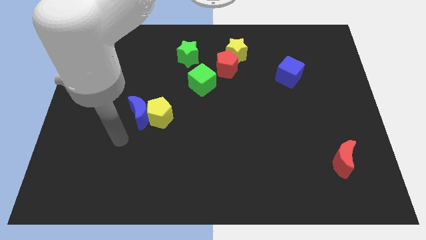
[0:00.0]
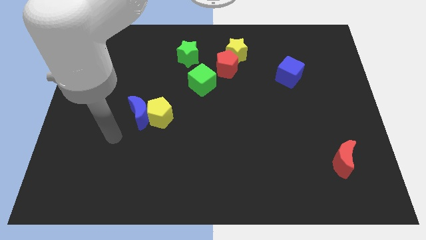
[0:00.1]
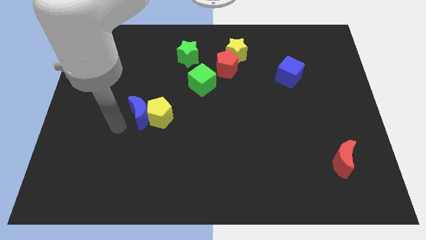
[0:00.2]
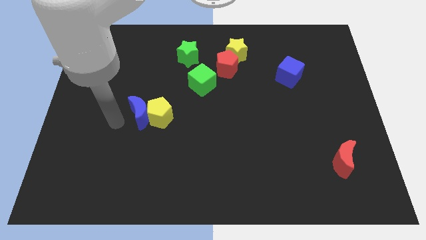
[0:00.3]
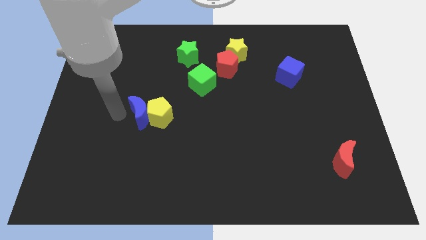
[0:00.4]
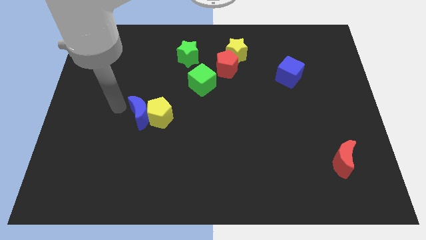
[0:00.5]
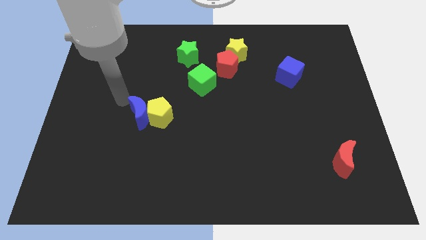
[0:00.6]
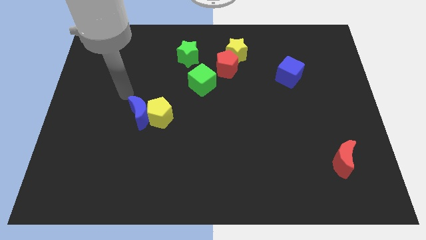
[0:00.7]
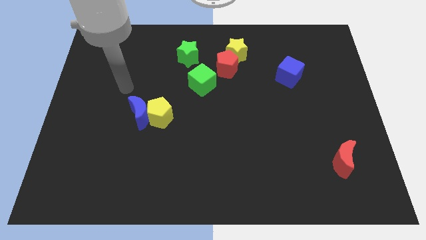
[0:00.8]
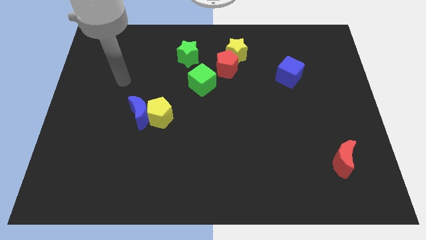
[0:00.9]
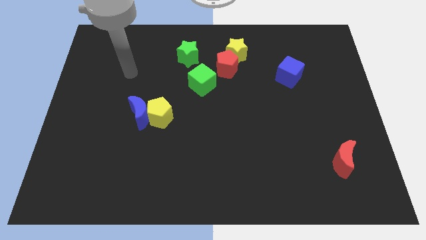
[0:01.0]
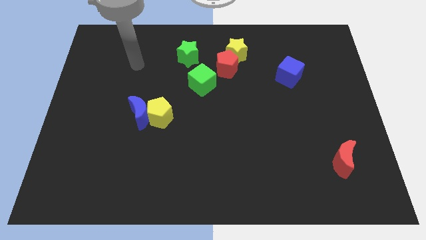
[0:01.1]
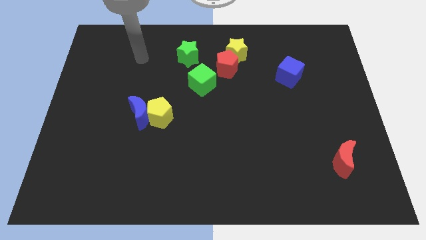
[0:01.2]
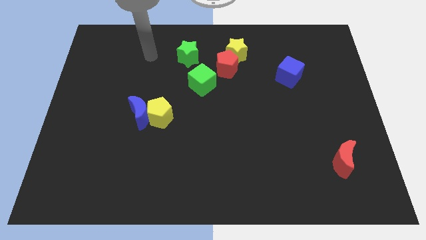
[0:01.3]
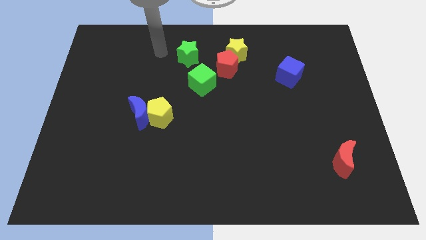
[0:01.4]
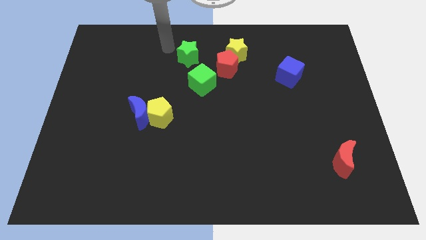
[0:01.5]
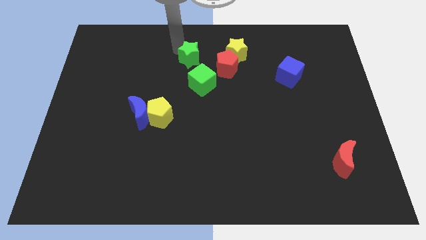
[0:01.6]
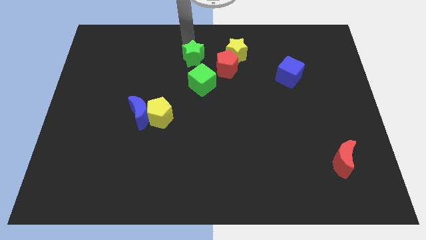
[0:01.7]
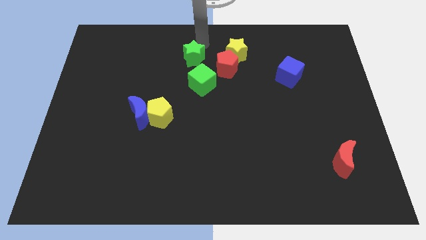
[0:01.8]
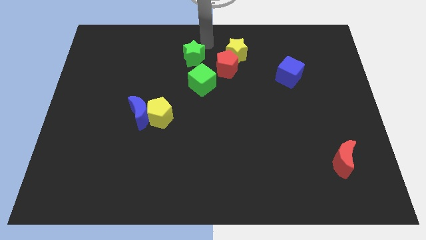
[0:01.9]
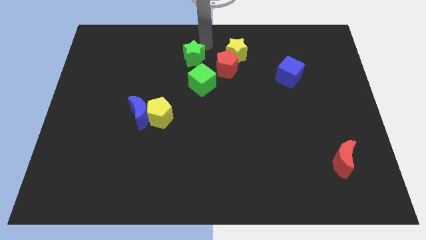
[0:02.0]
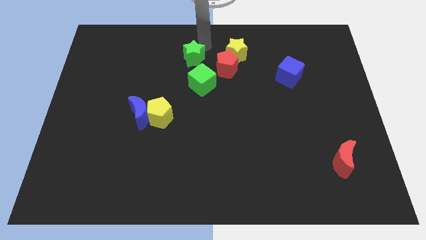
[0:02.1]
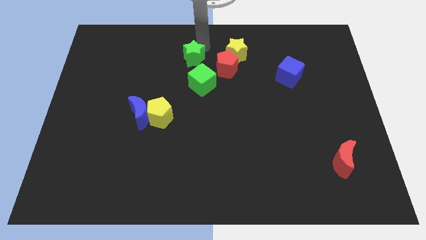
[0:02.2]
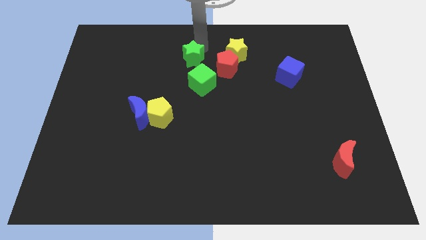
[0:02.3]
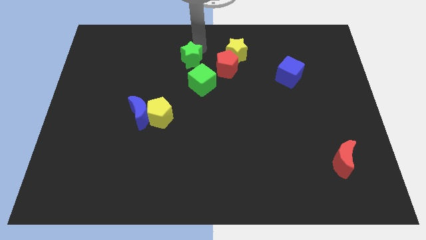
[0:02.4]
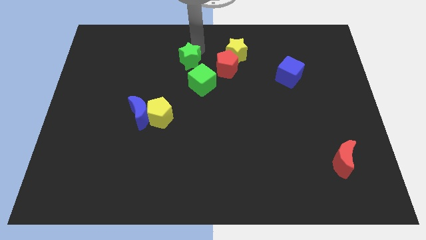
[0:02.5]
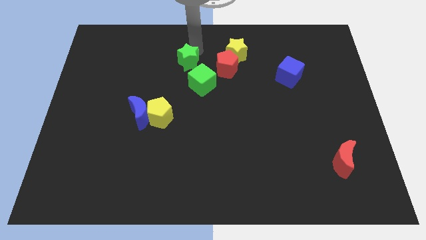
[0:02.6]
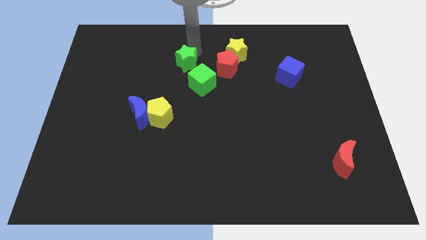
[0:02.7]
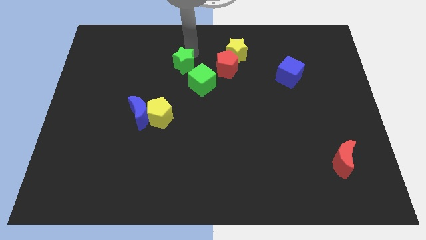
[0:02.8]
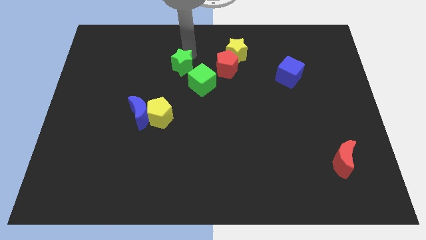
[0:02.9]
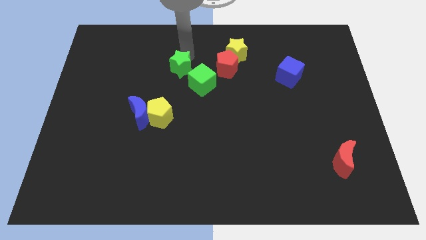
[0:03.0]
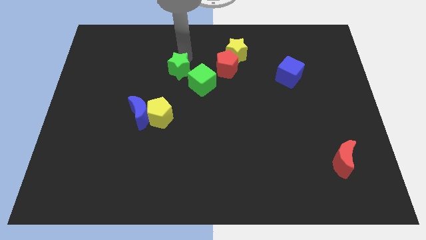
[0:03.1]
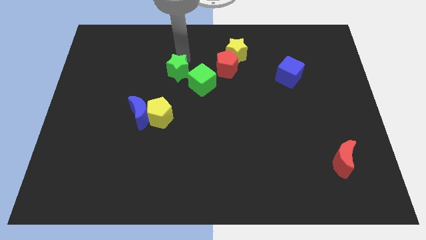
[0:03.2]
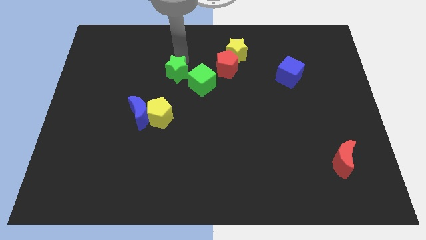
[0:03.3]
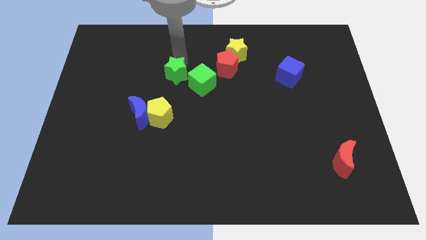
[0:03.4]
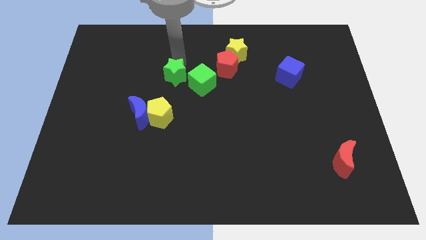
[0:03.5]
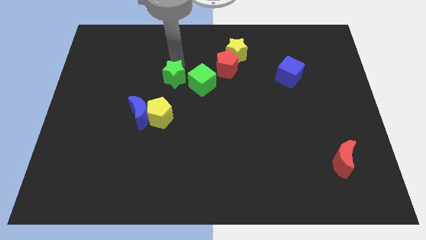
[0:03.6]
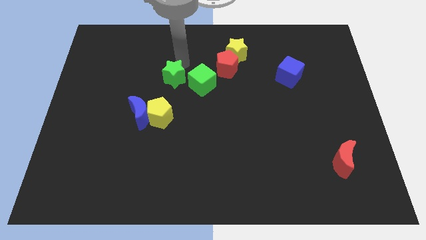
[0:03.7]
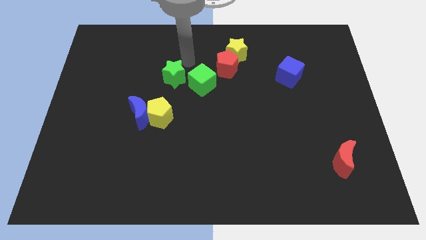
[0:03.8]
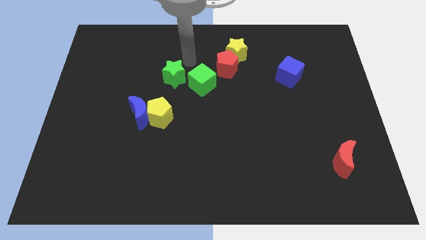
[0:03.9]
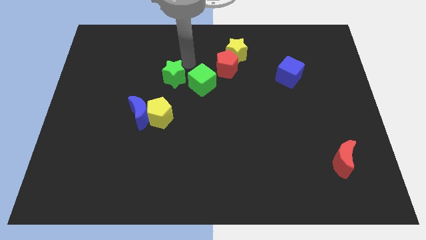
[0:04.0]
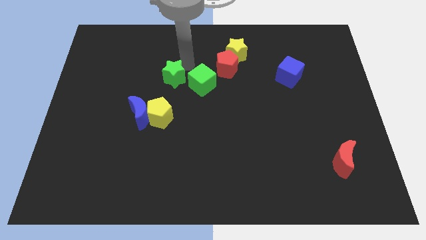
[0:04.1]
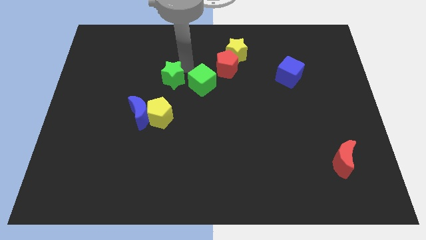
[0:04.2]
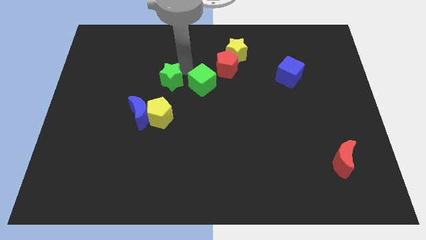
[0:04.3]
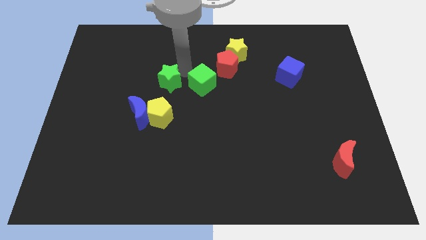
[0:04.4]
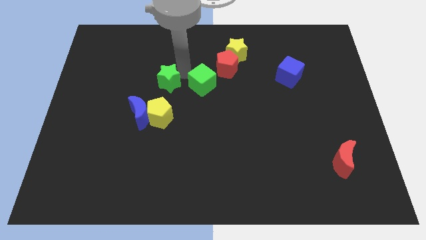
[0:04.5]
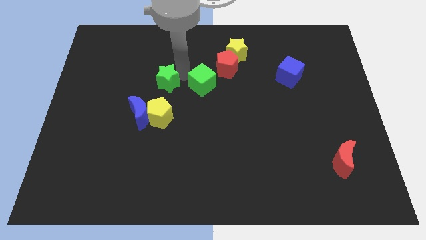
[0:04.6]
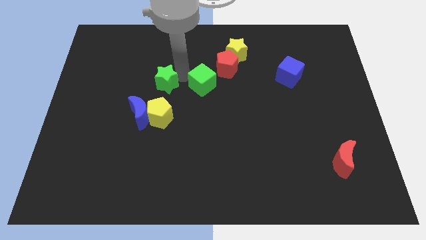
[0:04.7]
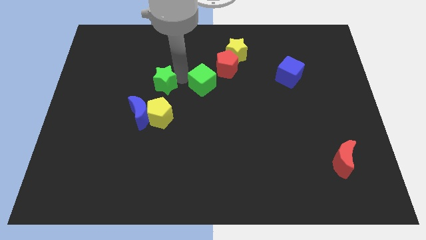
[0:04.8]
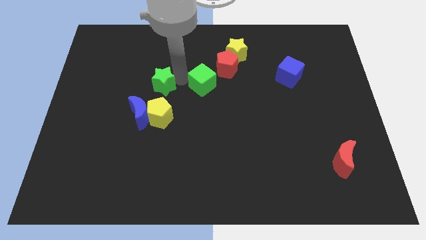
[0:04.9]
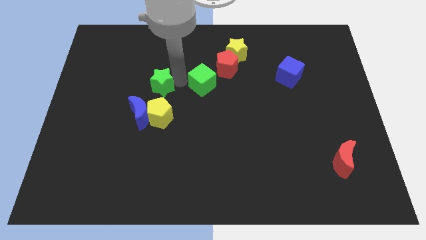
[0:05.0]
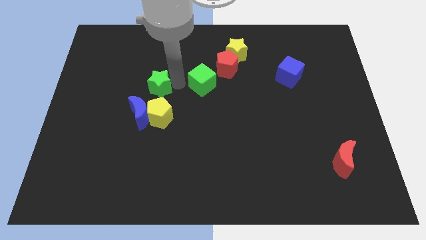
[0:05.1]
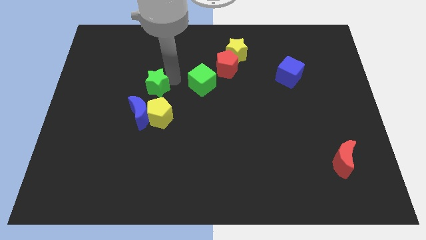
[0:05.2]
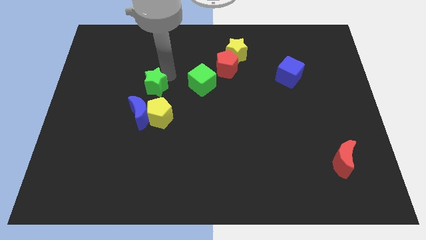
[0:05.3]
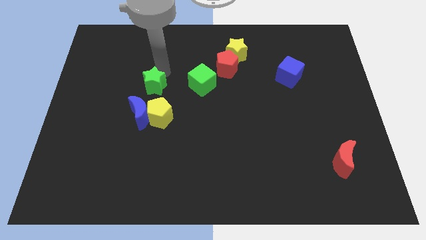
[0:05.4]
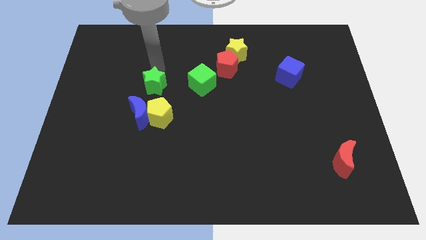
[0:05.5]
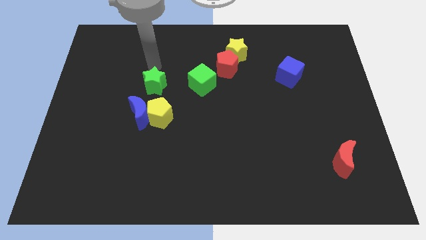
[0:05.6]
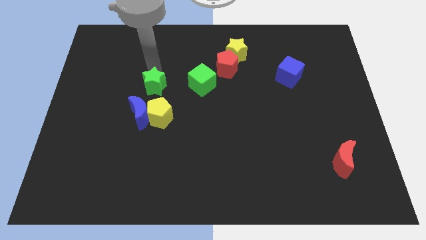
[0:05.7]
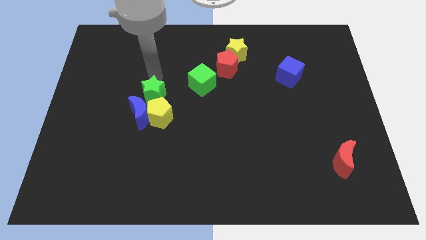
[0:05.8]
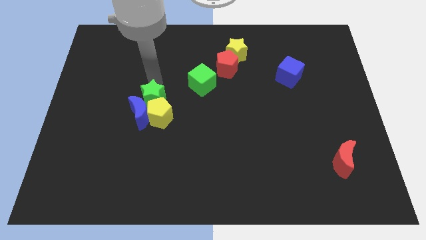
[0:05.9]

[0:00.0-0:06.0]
push the green star to the yellow pentagon

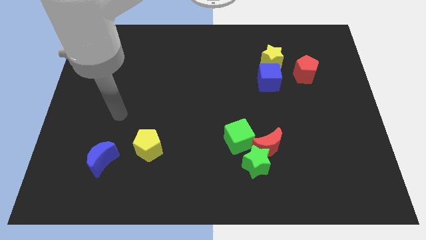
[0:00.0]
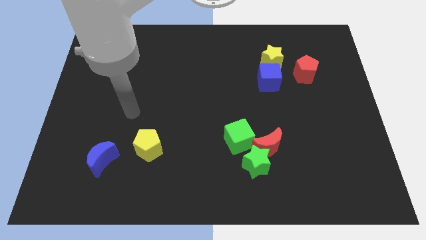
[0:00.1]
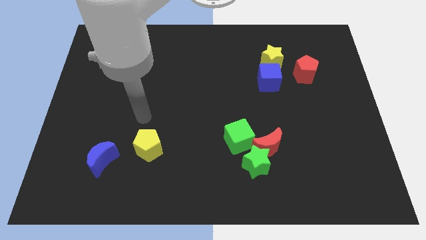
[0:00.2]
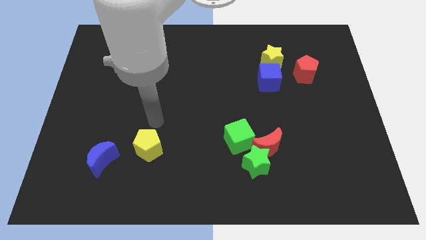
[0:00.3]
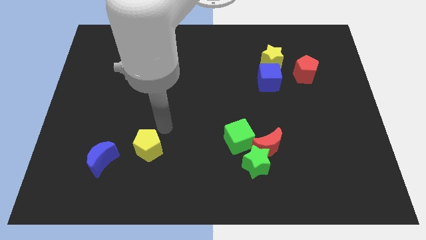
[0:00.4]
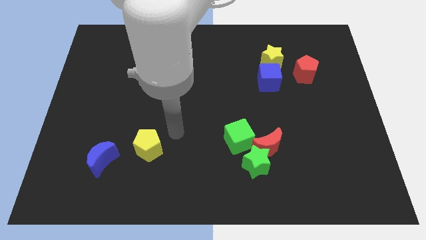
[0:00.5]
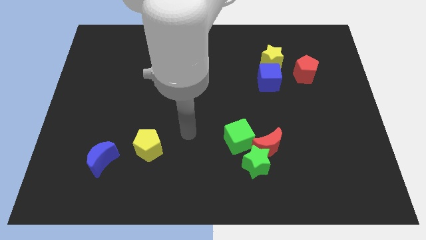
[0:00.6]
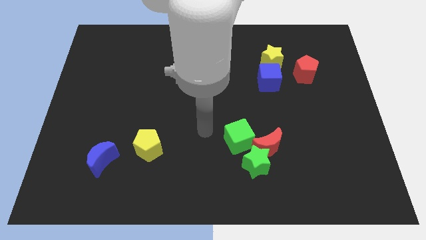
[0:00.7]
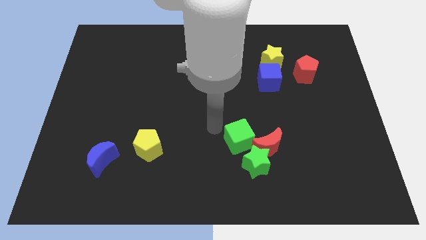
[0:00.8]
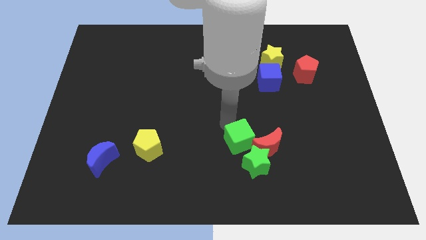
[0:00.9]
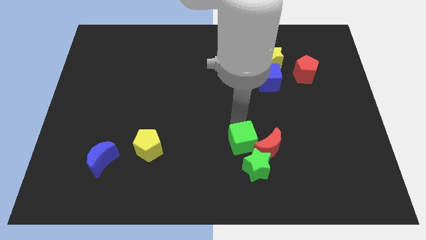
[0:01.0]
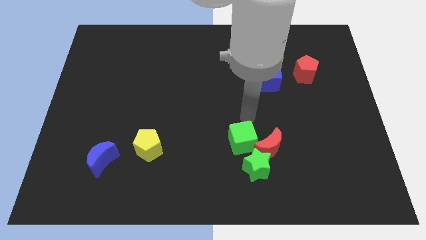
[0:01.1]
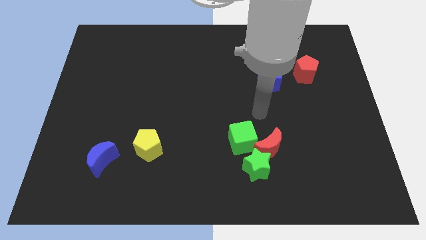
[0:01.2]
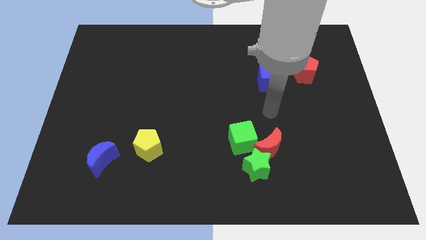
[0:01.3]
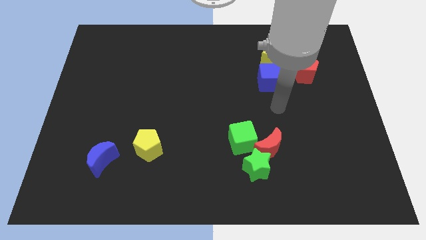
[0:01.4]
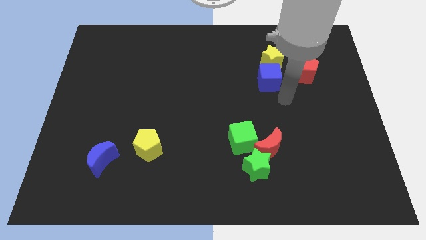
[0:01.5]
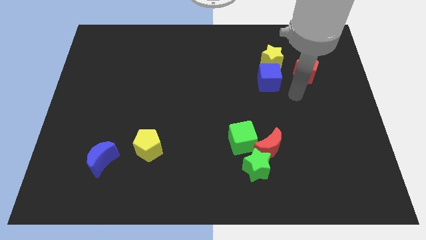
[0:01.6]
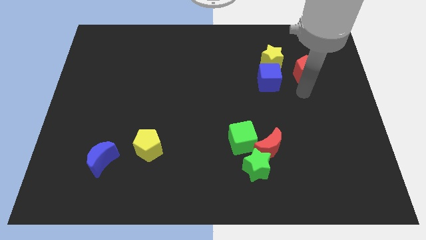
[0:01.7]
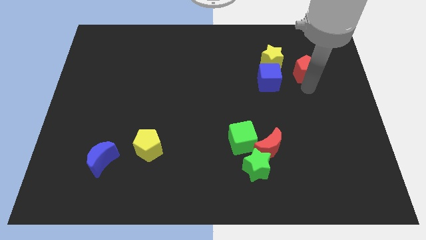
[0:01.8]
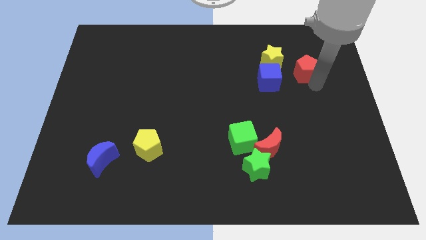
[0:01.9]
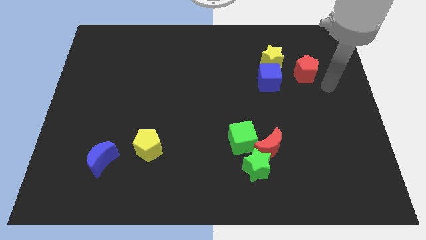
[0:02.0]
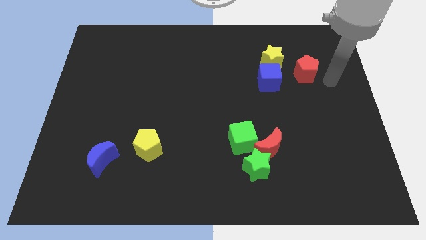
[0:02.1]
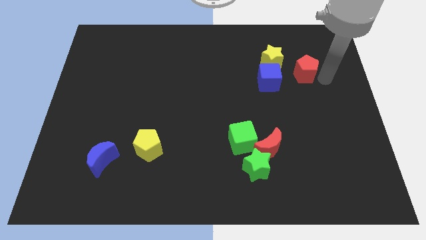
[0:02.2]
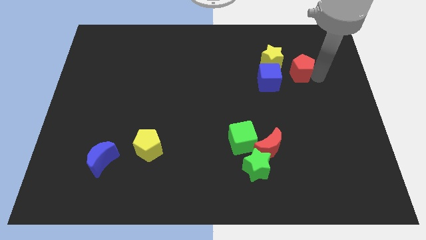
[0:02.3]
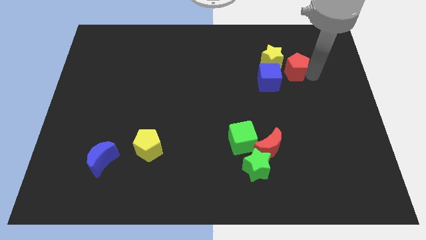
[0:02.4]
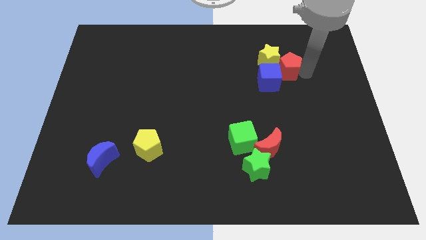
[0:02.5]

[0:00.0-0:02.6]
slide the red pentagon towards the yellow star
